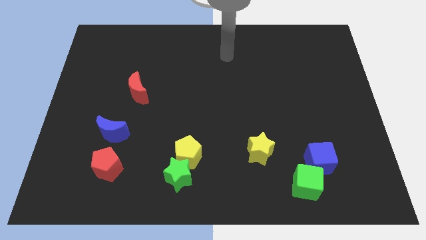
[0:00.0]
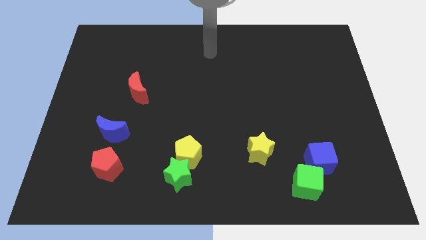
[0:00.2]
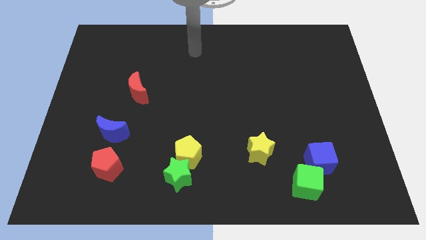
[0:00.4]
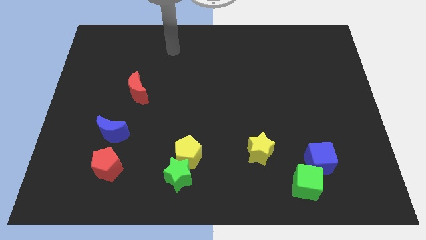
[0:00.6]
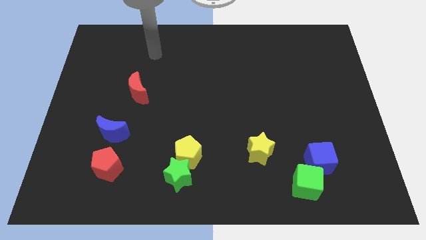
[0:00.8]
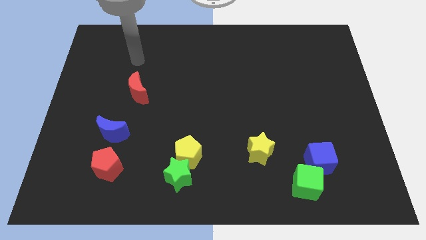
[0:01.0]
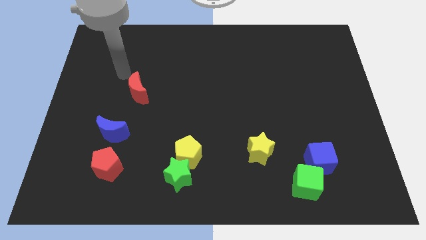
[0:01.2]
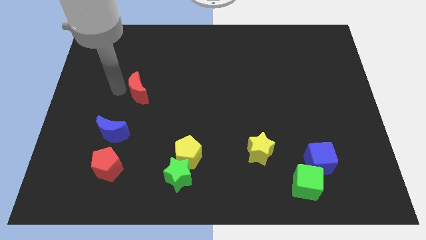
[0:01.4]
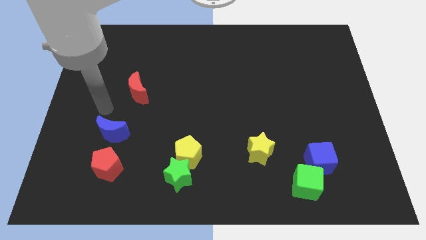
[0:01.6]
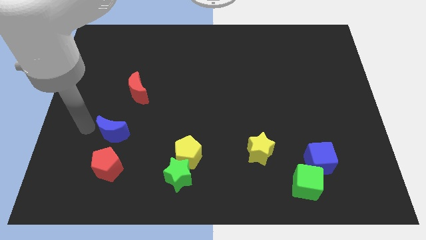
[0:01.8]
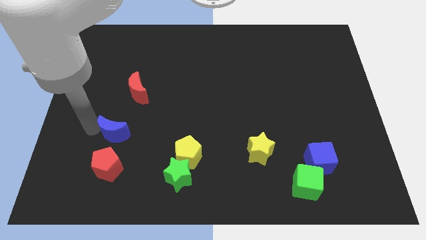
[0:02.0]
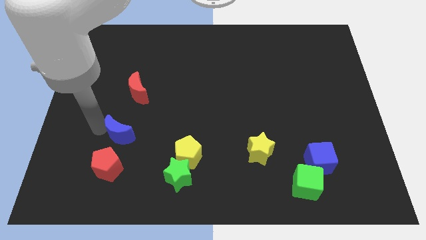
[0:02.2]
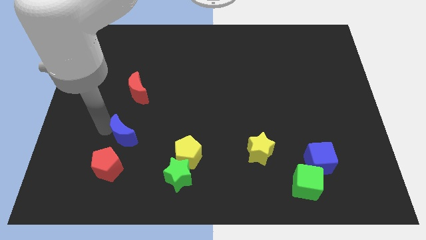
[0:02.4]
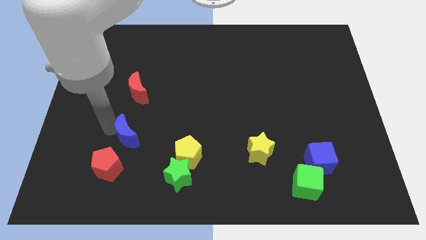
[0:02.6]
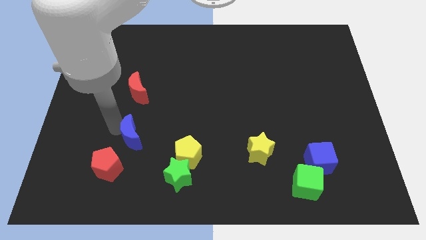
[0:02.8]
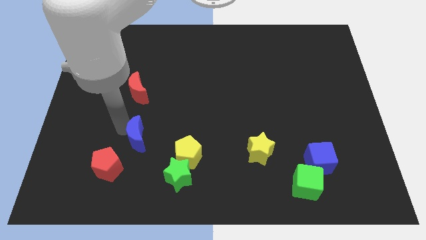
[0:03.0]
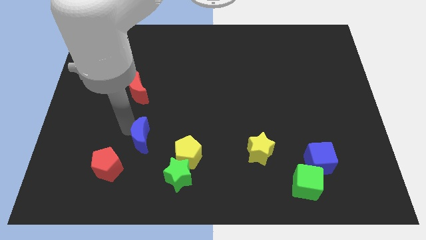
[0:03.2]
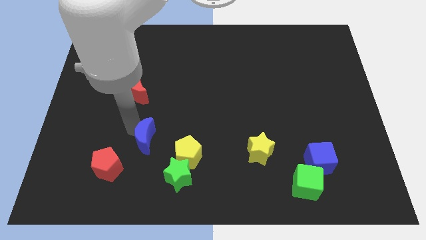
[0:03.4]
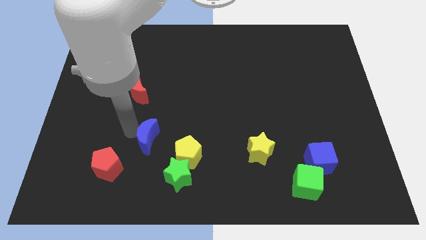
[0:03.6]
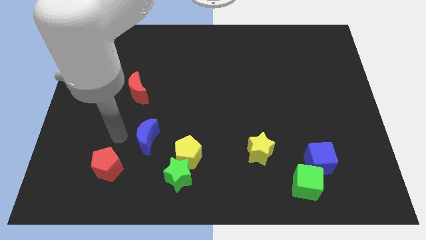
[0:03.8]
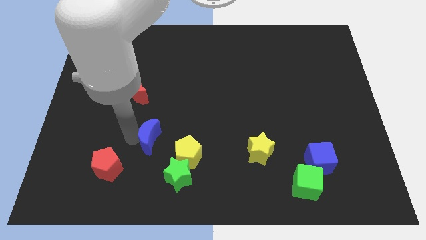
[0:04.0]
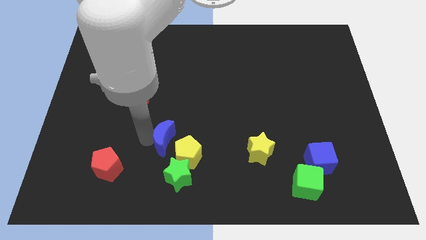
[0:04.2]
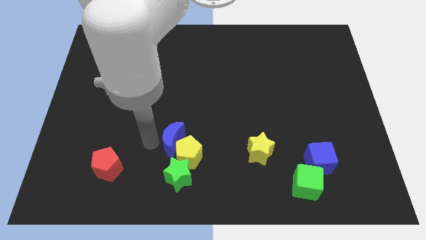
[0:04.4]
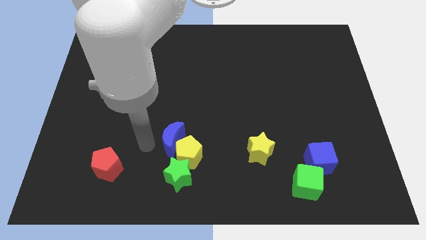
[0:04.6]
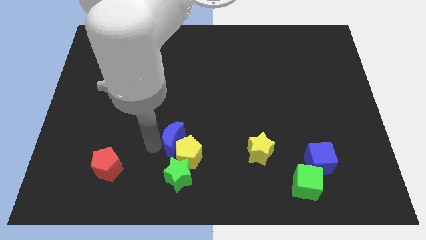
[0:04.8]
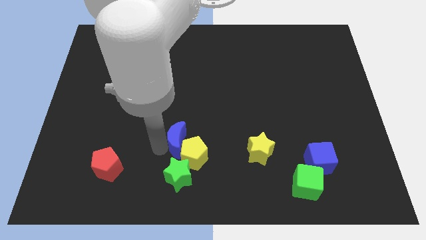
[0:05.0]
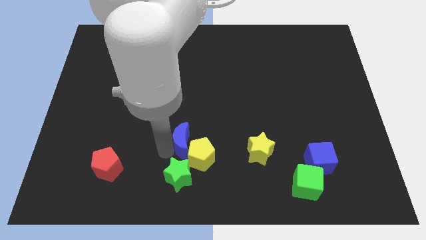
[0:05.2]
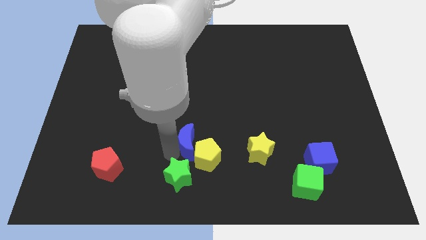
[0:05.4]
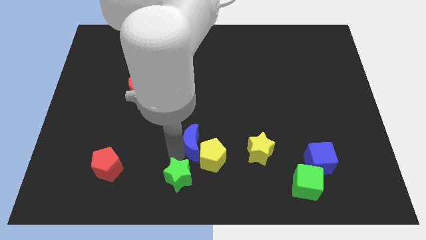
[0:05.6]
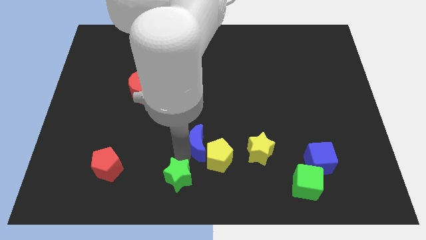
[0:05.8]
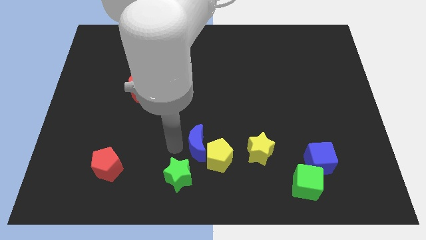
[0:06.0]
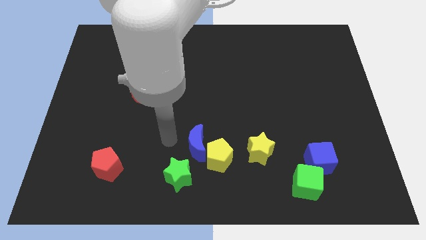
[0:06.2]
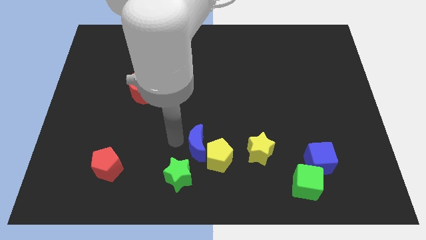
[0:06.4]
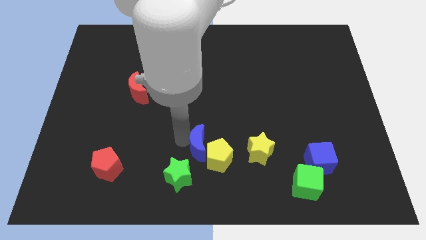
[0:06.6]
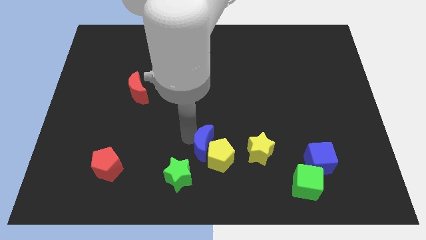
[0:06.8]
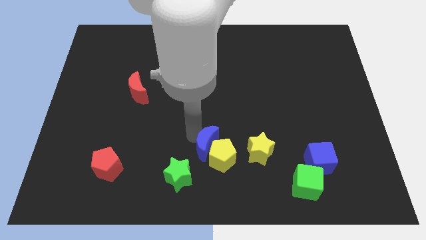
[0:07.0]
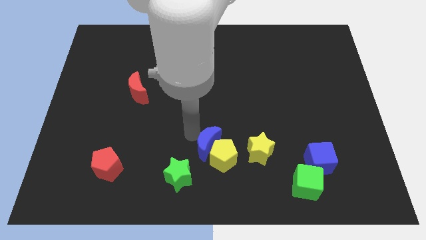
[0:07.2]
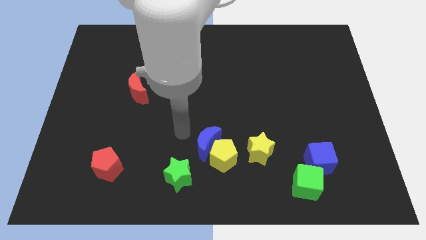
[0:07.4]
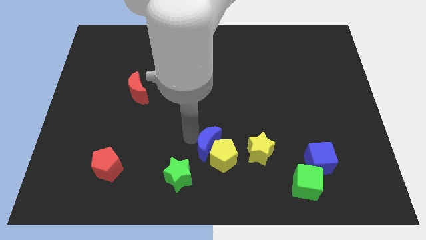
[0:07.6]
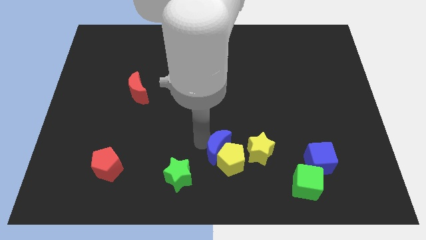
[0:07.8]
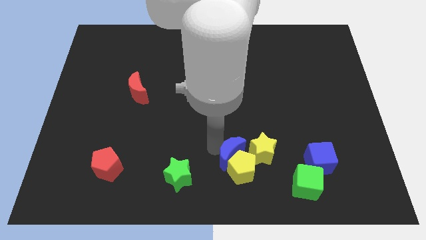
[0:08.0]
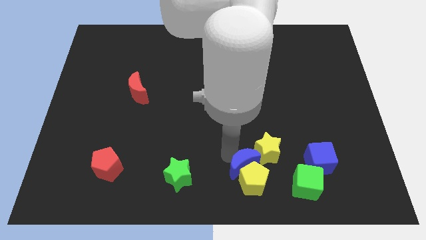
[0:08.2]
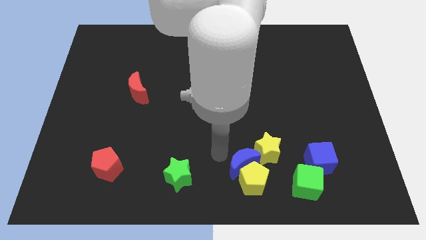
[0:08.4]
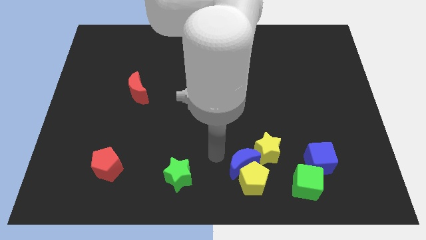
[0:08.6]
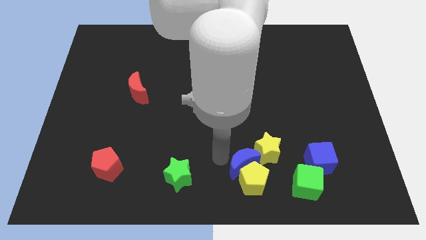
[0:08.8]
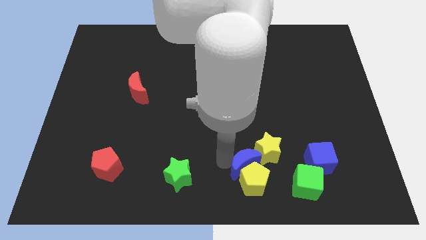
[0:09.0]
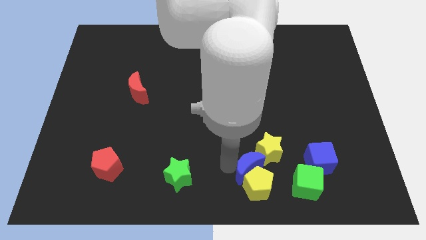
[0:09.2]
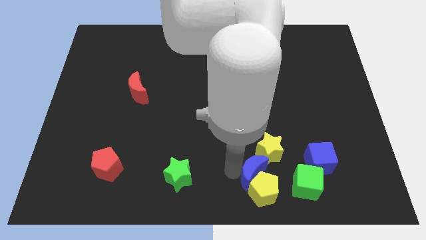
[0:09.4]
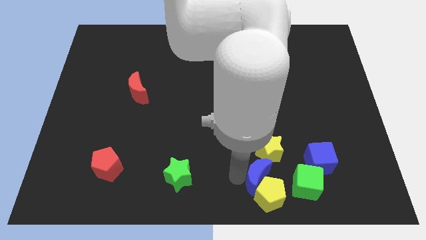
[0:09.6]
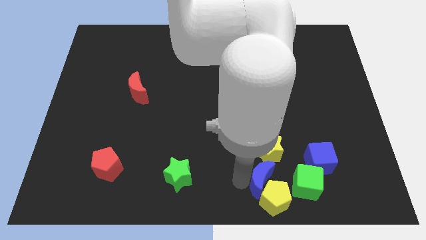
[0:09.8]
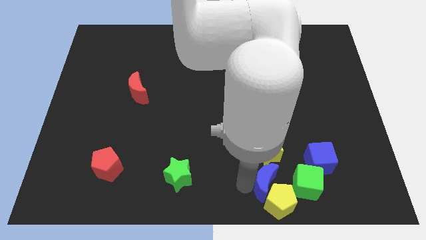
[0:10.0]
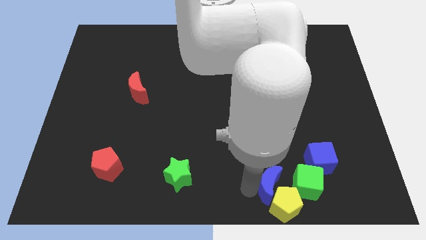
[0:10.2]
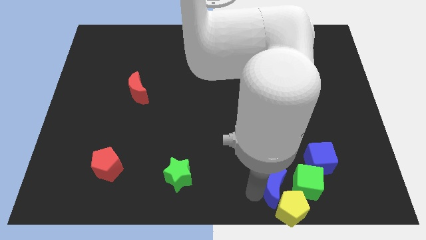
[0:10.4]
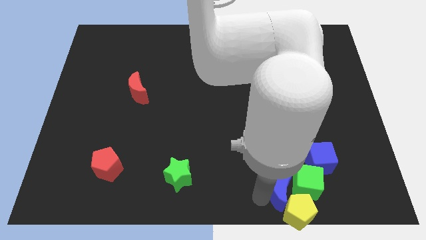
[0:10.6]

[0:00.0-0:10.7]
slide the blue moon towards the green cube
